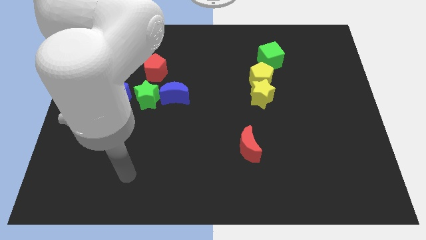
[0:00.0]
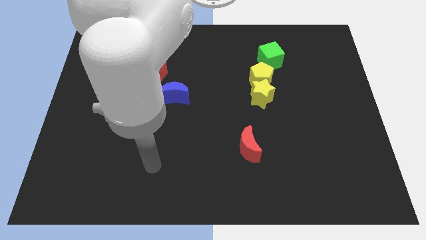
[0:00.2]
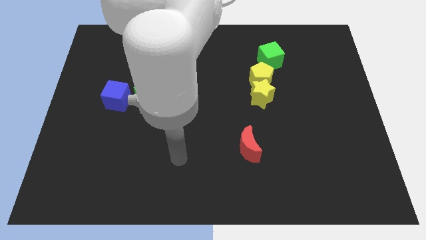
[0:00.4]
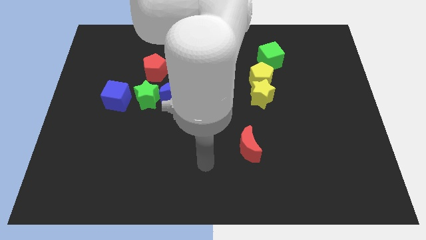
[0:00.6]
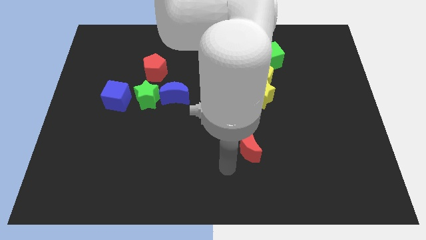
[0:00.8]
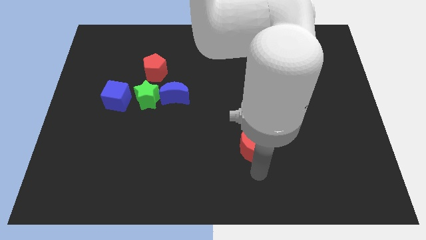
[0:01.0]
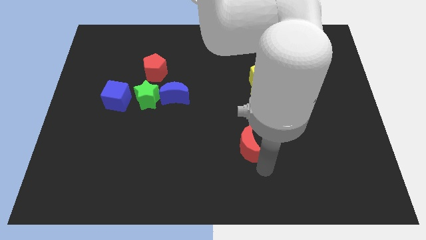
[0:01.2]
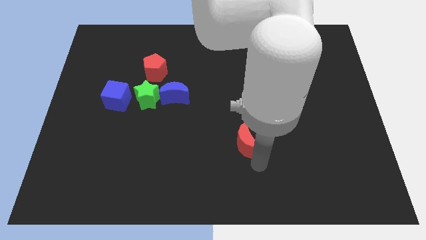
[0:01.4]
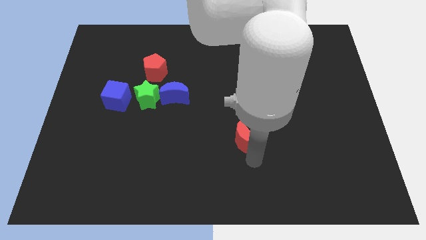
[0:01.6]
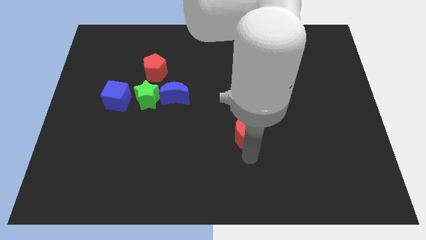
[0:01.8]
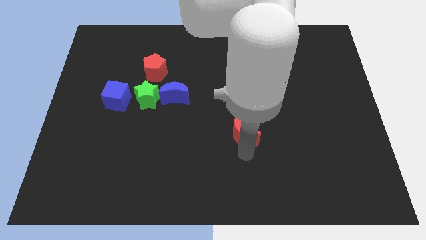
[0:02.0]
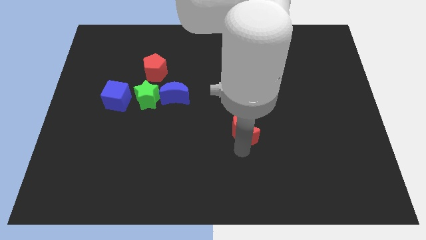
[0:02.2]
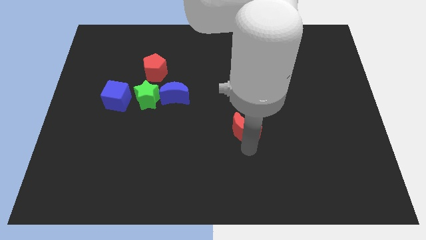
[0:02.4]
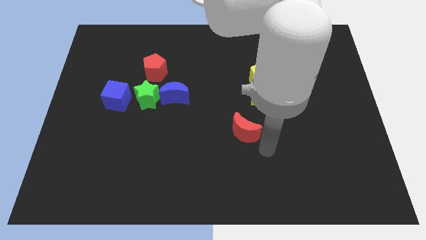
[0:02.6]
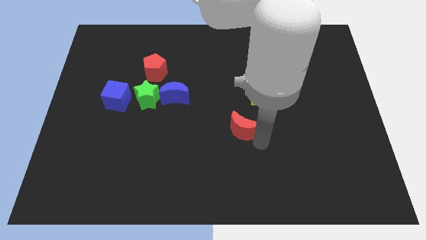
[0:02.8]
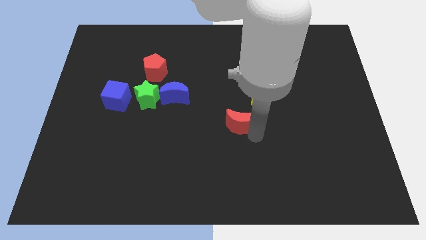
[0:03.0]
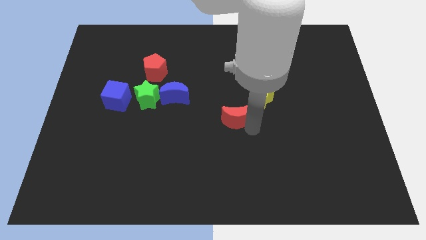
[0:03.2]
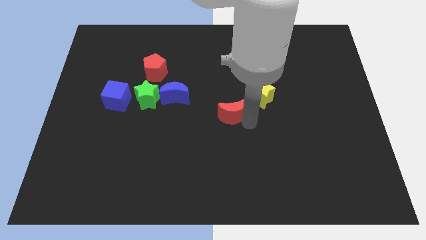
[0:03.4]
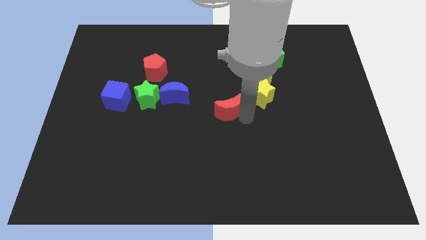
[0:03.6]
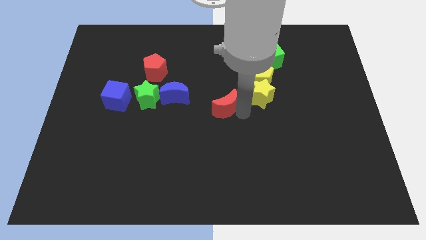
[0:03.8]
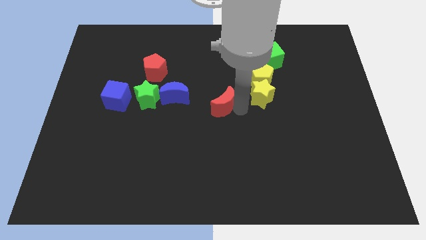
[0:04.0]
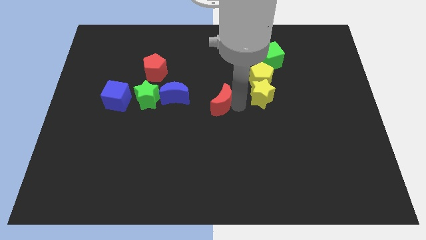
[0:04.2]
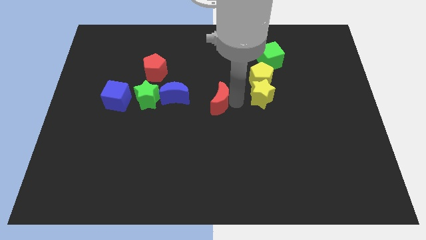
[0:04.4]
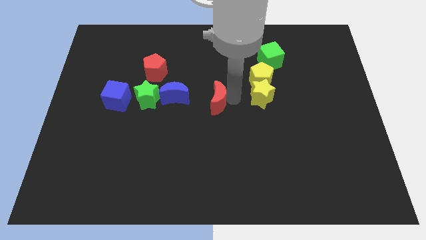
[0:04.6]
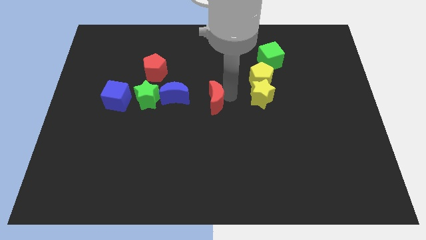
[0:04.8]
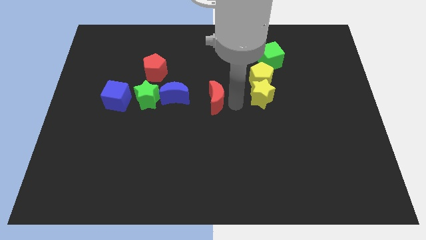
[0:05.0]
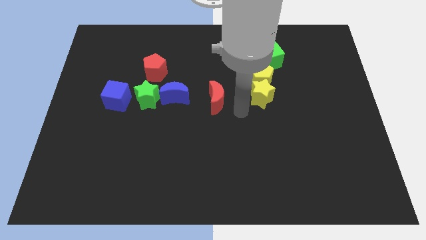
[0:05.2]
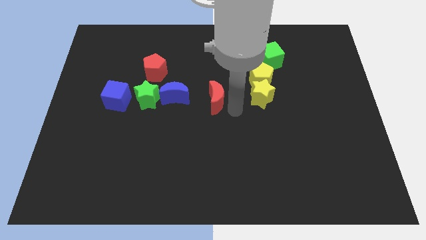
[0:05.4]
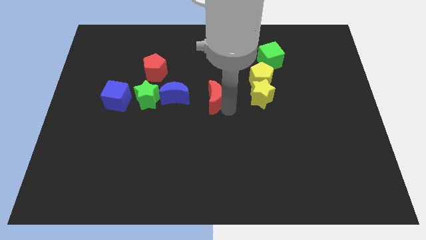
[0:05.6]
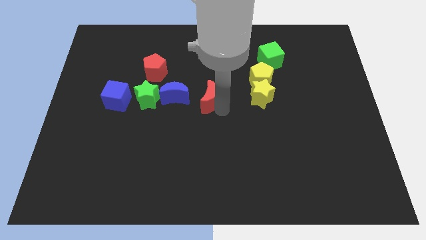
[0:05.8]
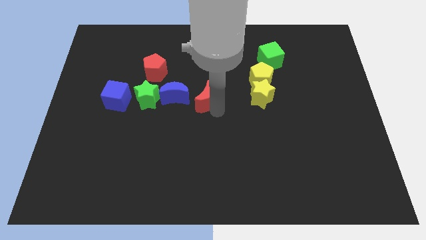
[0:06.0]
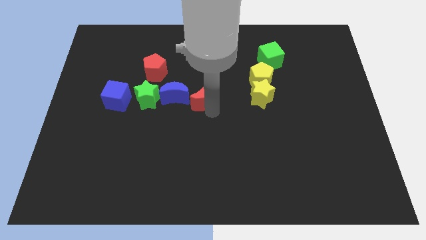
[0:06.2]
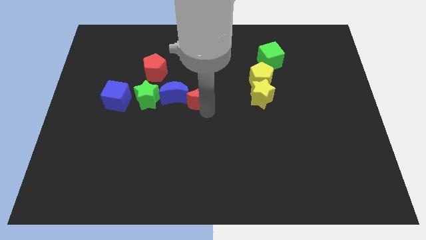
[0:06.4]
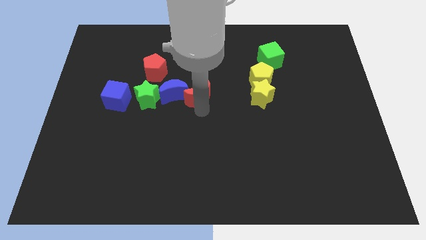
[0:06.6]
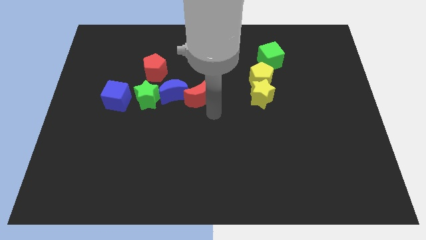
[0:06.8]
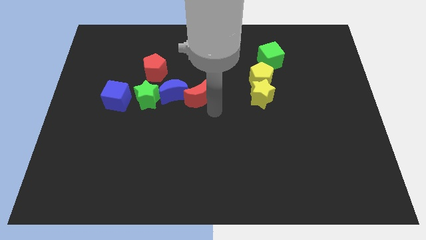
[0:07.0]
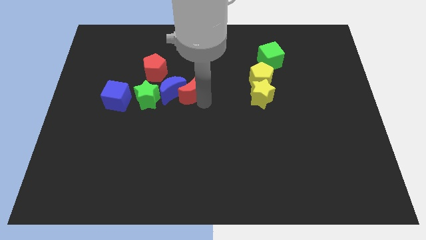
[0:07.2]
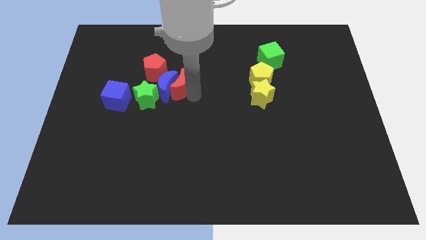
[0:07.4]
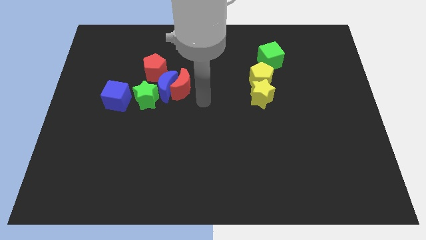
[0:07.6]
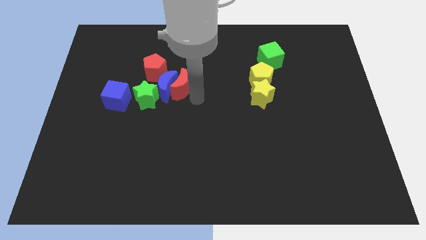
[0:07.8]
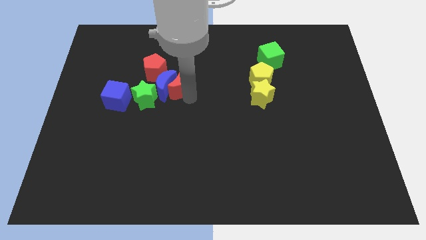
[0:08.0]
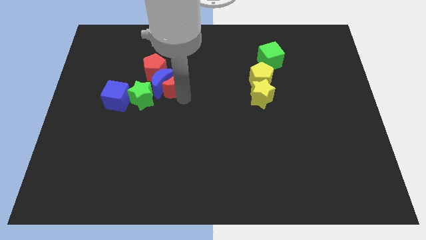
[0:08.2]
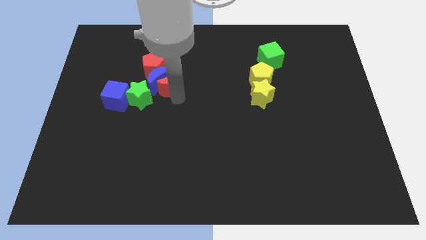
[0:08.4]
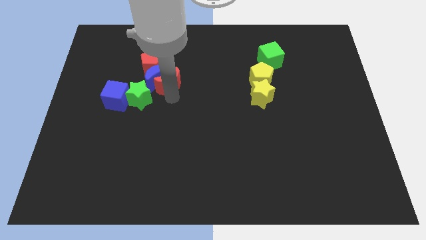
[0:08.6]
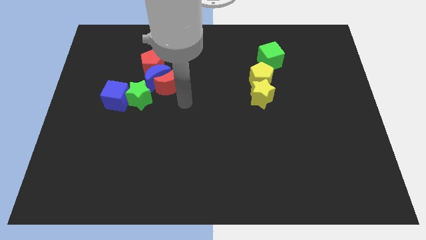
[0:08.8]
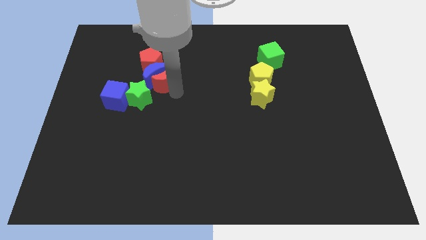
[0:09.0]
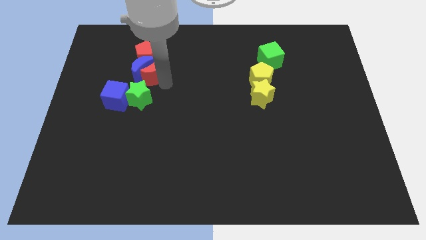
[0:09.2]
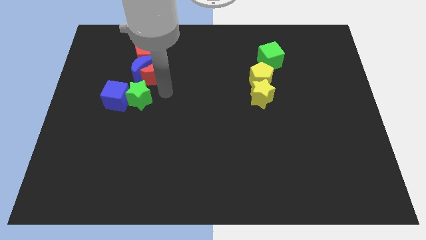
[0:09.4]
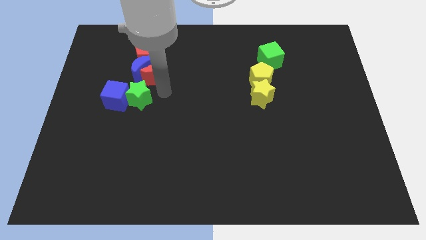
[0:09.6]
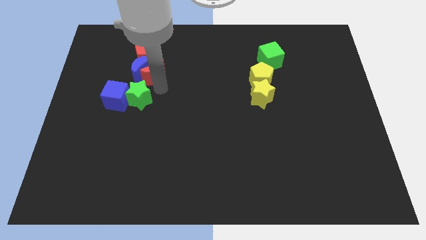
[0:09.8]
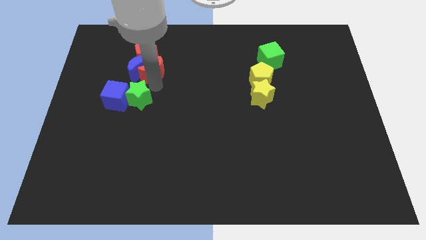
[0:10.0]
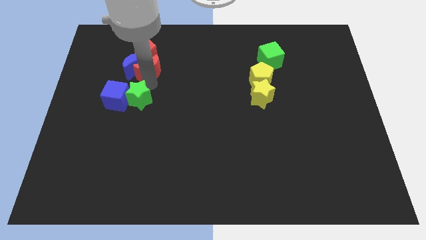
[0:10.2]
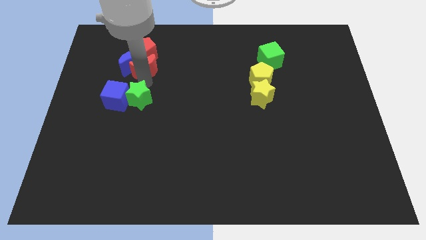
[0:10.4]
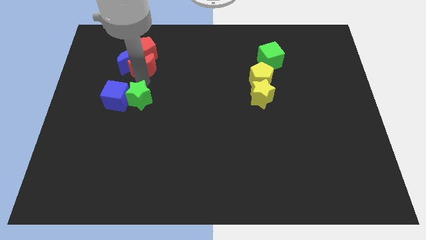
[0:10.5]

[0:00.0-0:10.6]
push the red moon close to the red pentagon

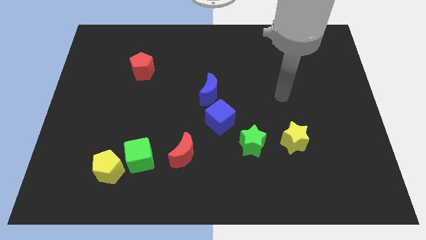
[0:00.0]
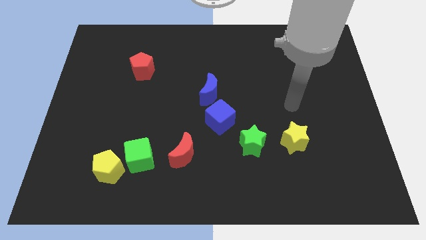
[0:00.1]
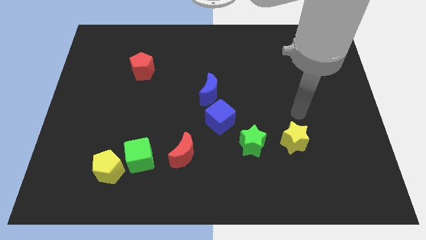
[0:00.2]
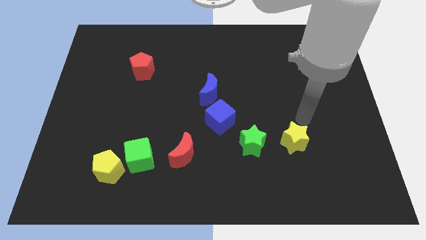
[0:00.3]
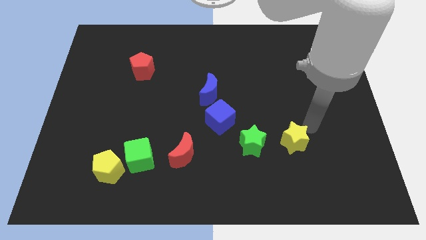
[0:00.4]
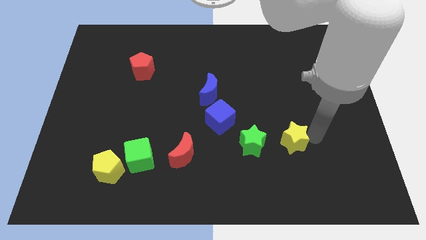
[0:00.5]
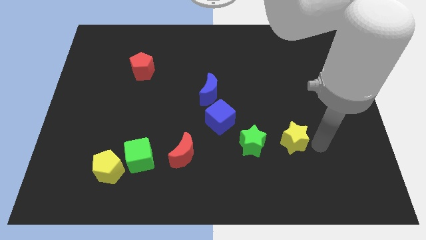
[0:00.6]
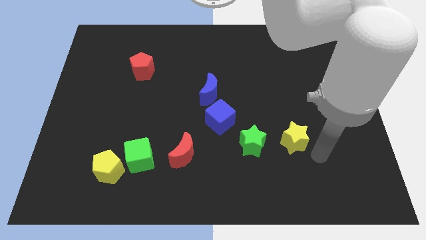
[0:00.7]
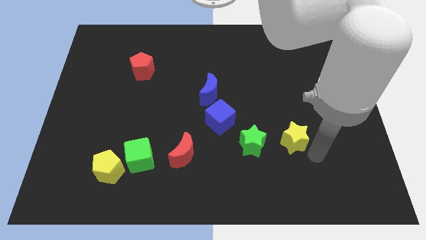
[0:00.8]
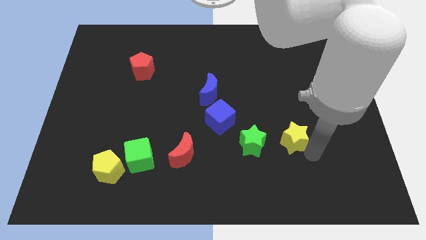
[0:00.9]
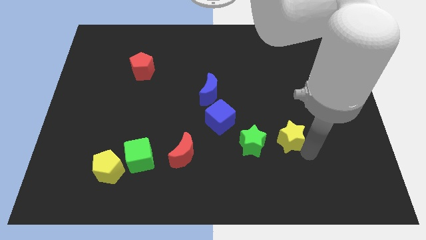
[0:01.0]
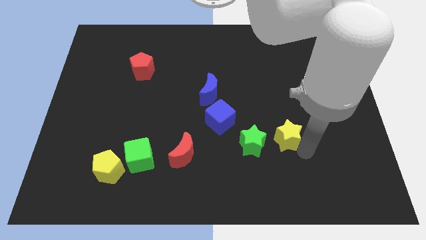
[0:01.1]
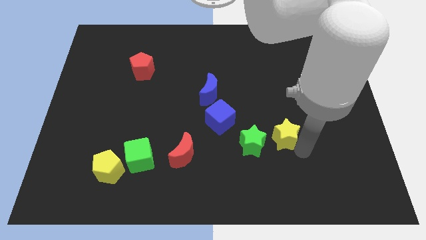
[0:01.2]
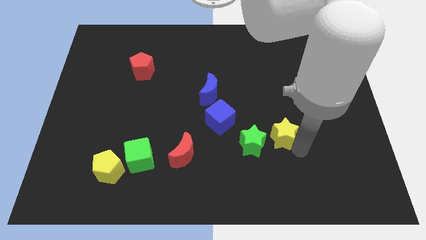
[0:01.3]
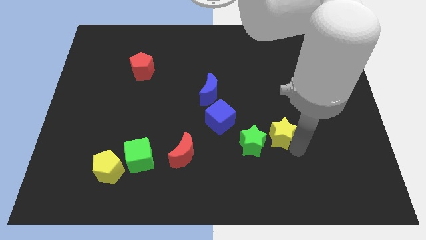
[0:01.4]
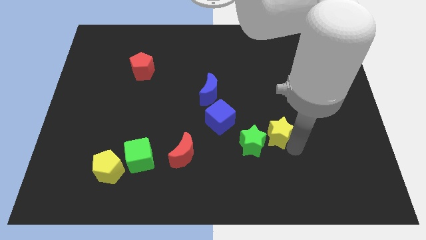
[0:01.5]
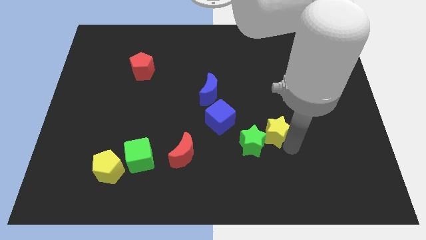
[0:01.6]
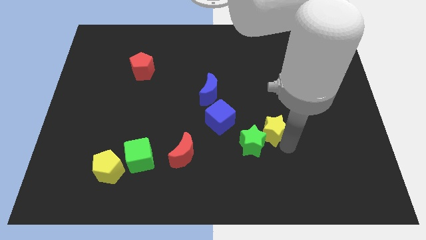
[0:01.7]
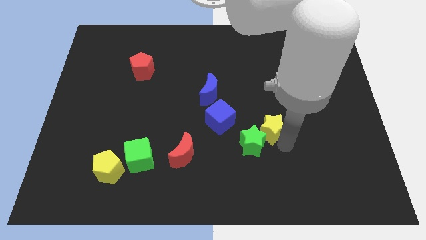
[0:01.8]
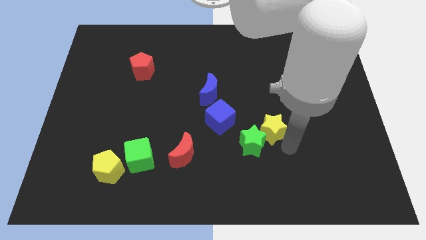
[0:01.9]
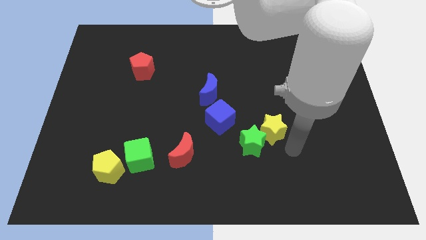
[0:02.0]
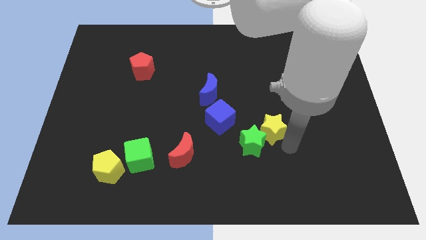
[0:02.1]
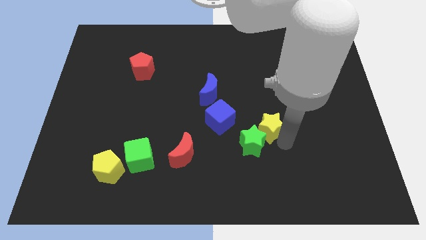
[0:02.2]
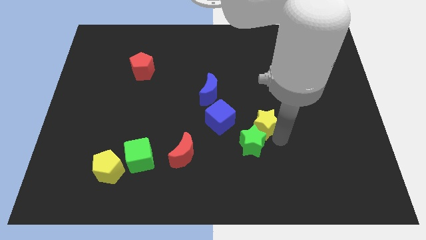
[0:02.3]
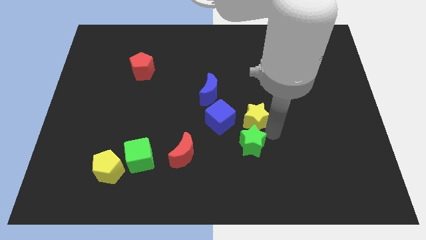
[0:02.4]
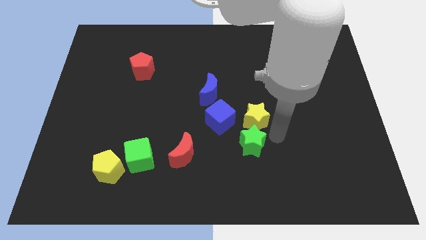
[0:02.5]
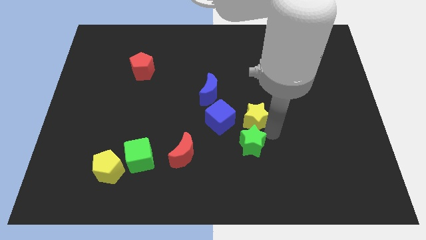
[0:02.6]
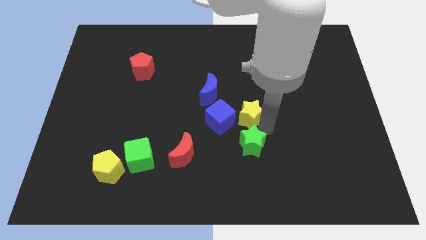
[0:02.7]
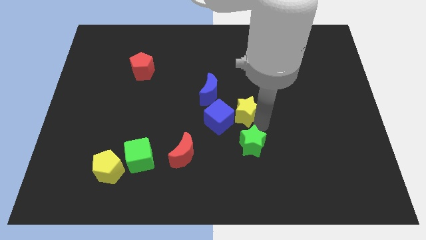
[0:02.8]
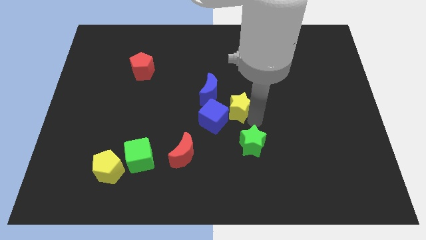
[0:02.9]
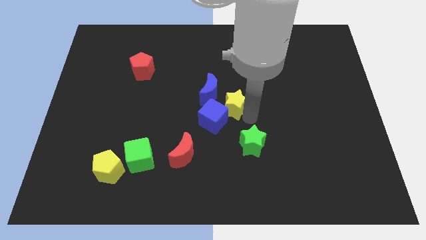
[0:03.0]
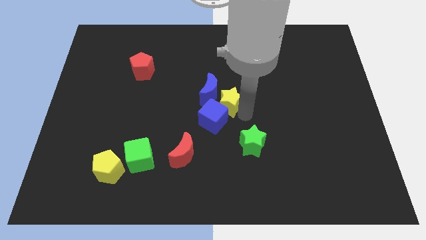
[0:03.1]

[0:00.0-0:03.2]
move the yellow star close to the blue moon
